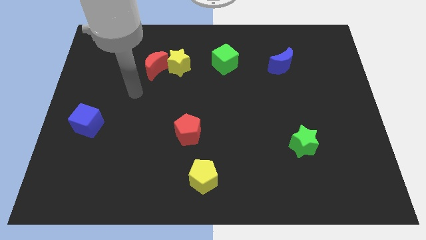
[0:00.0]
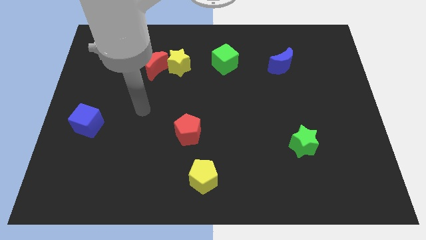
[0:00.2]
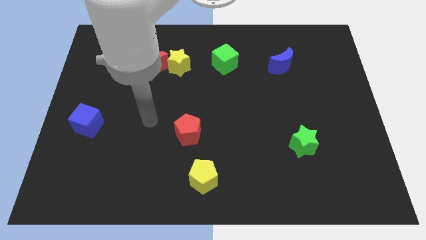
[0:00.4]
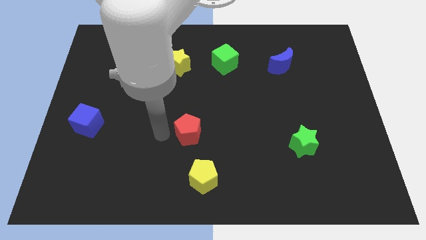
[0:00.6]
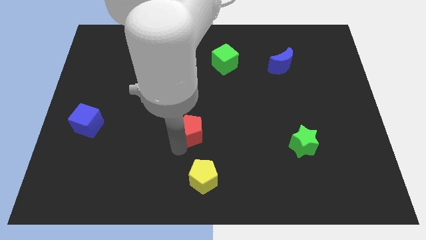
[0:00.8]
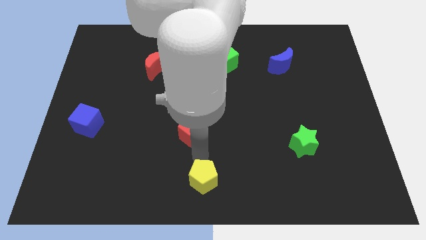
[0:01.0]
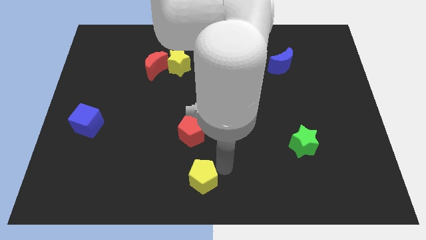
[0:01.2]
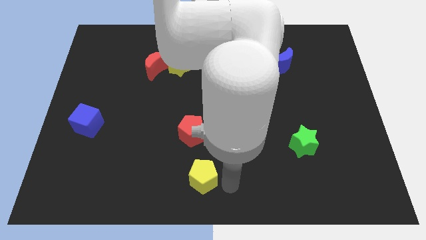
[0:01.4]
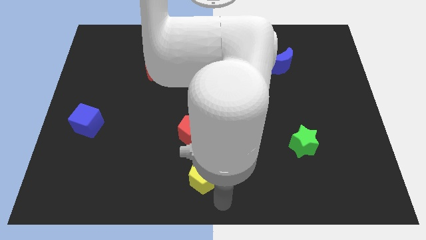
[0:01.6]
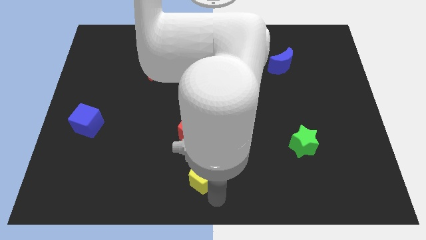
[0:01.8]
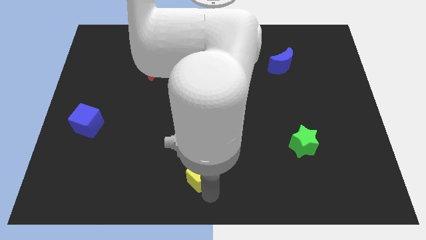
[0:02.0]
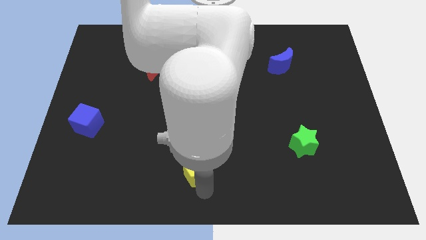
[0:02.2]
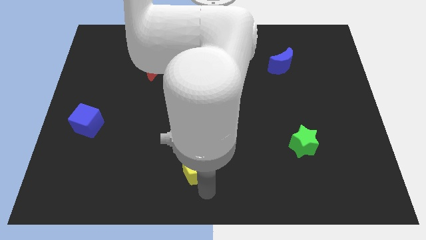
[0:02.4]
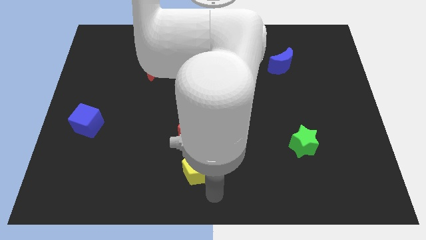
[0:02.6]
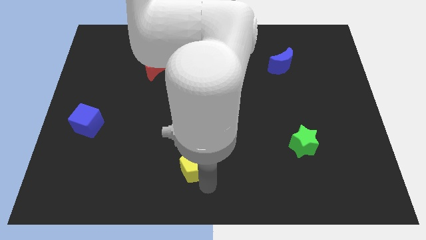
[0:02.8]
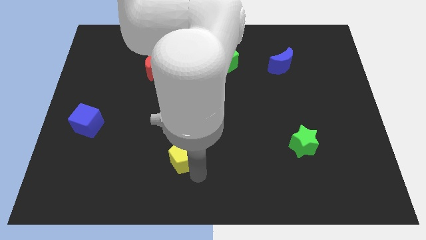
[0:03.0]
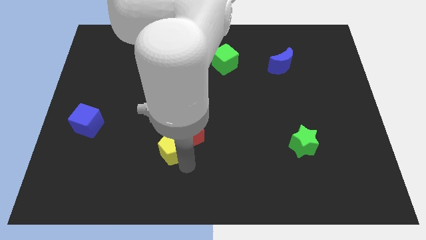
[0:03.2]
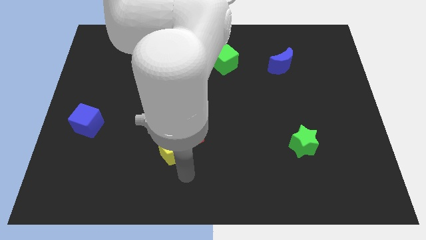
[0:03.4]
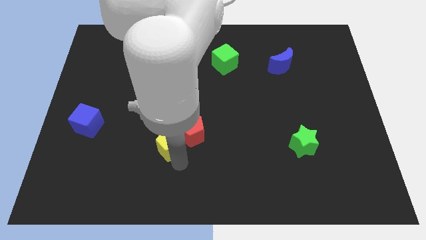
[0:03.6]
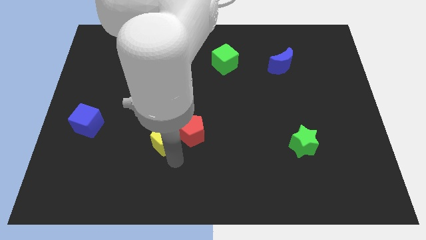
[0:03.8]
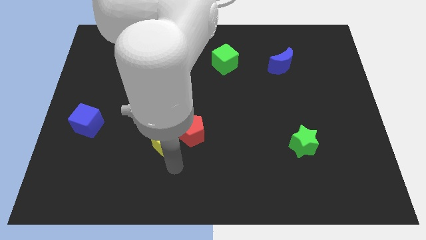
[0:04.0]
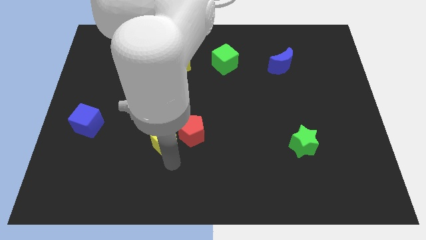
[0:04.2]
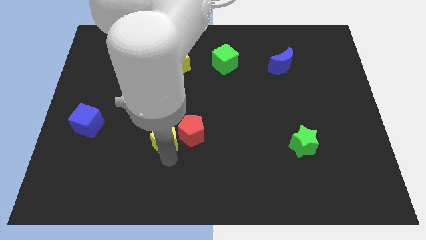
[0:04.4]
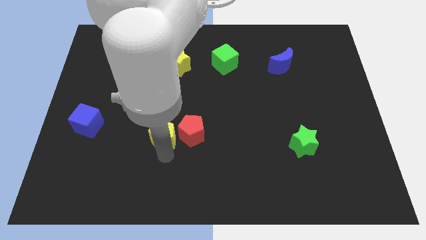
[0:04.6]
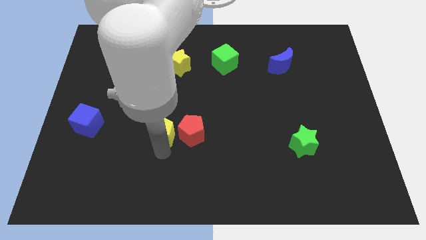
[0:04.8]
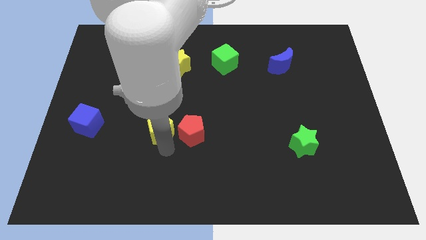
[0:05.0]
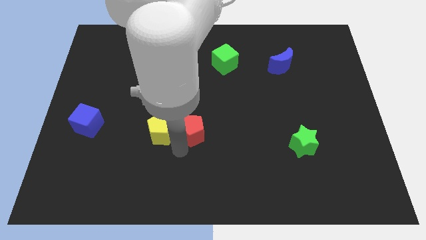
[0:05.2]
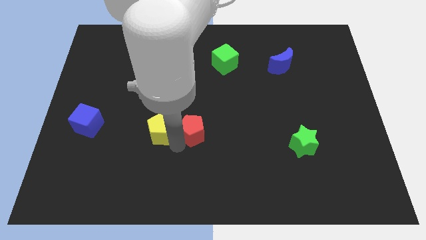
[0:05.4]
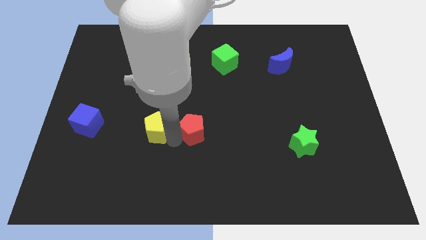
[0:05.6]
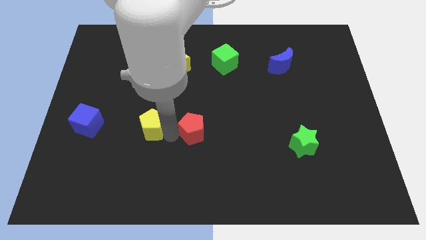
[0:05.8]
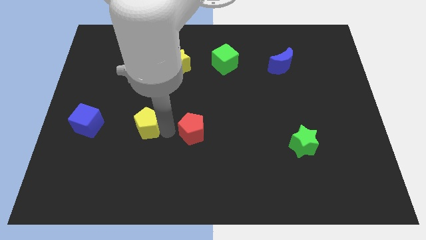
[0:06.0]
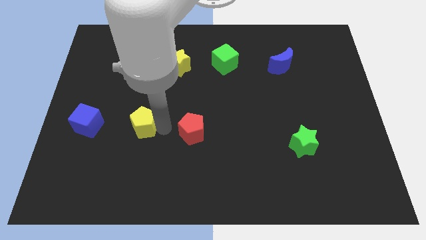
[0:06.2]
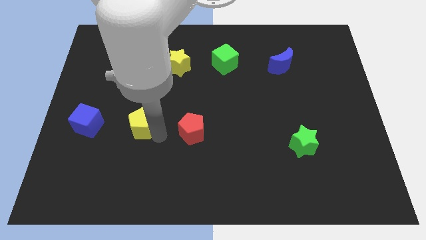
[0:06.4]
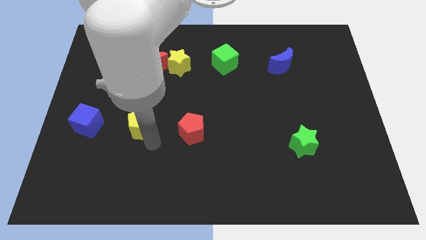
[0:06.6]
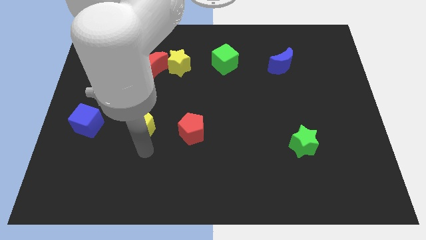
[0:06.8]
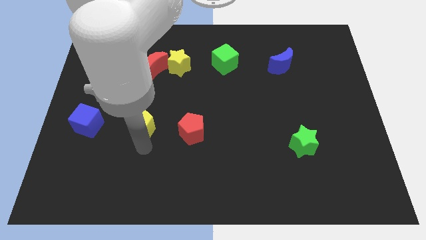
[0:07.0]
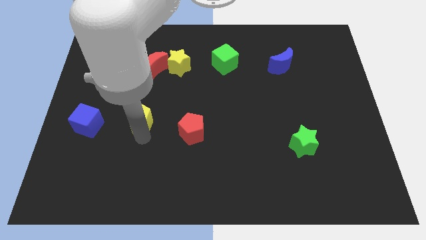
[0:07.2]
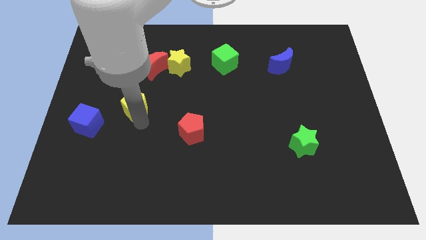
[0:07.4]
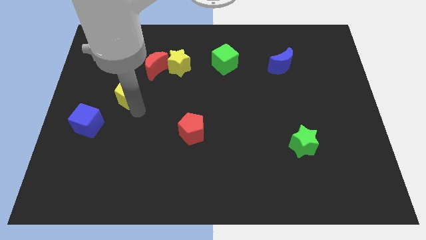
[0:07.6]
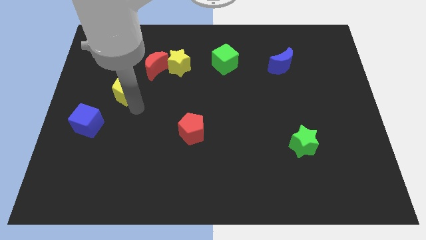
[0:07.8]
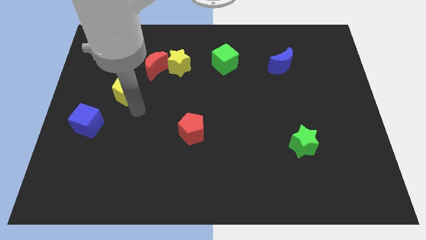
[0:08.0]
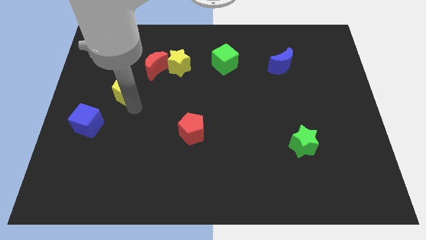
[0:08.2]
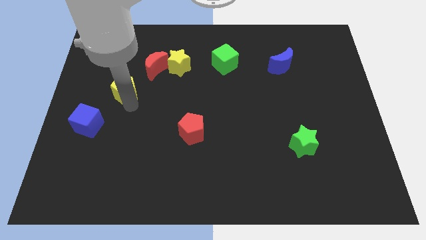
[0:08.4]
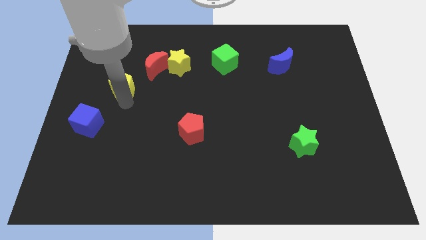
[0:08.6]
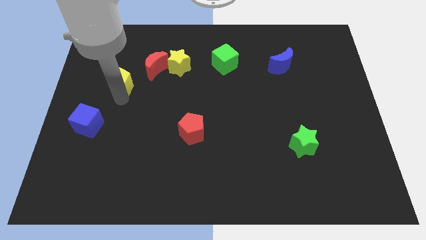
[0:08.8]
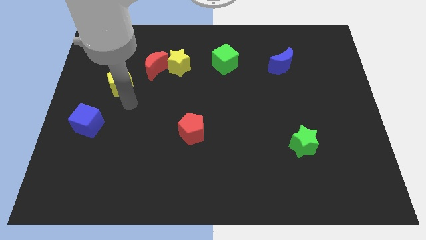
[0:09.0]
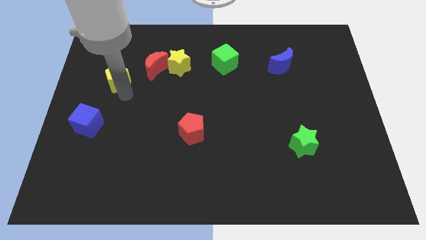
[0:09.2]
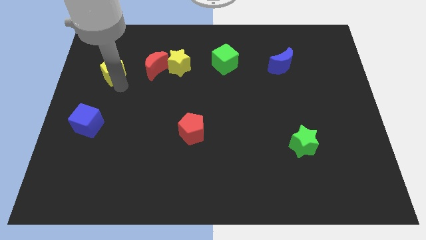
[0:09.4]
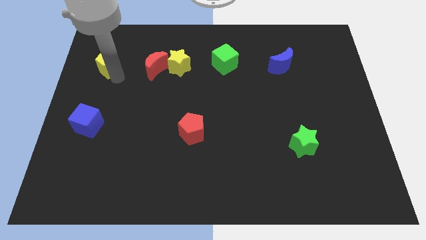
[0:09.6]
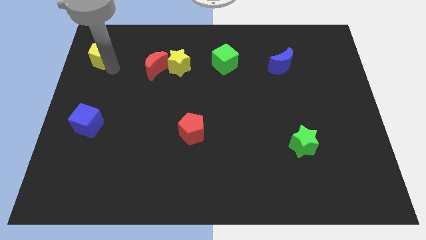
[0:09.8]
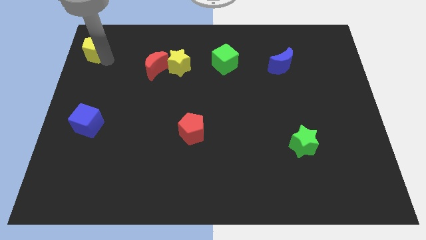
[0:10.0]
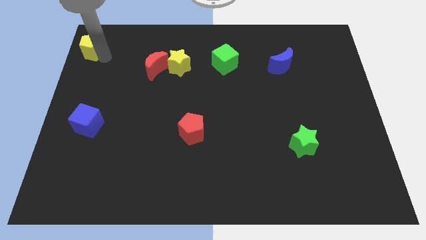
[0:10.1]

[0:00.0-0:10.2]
put the yellow pentagon to the top left

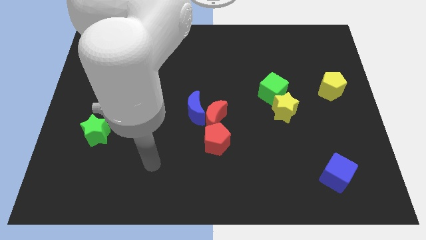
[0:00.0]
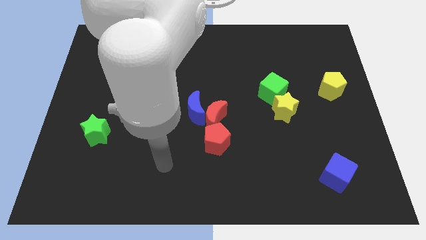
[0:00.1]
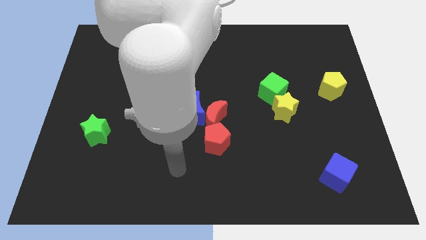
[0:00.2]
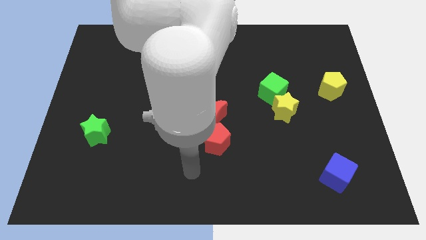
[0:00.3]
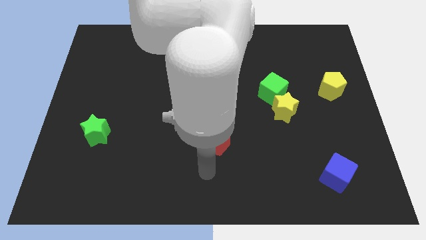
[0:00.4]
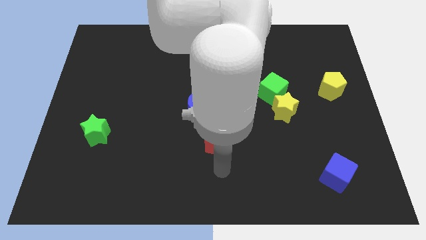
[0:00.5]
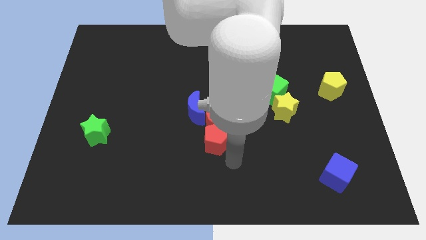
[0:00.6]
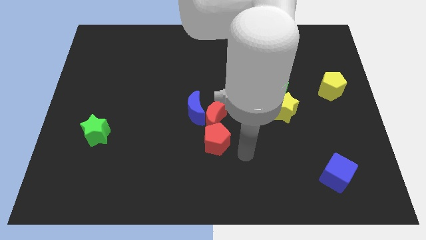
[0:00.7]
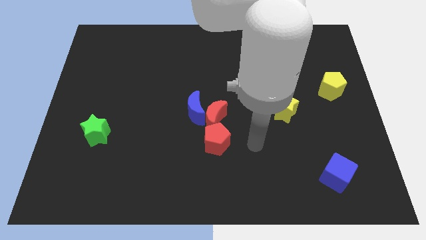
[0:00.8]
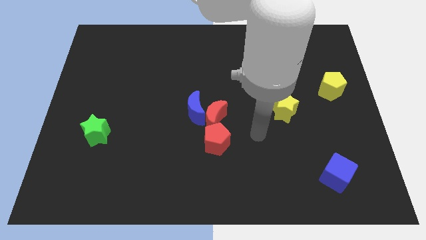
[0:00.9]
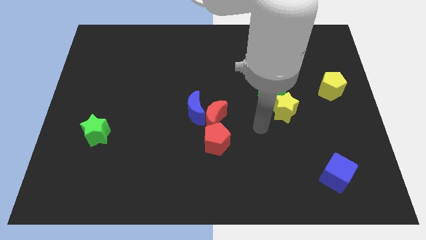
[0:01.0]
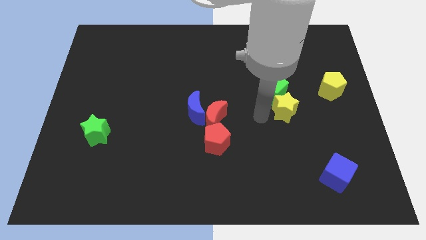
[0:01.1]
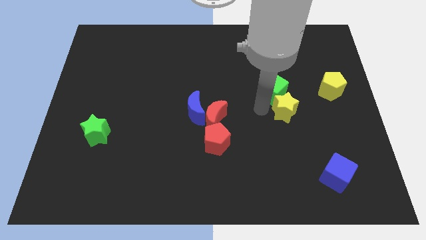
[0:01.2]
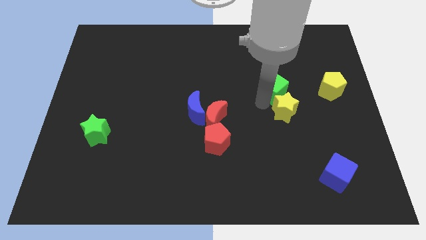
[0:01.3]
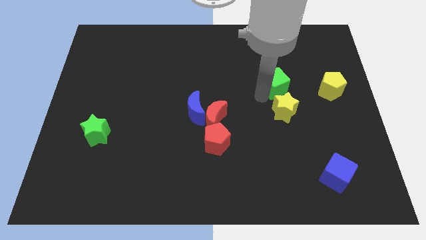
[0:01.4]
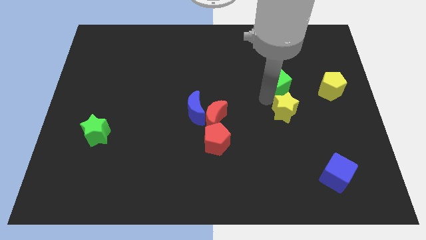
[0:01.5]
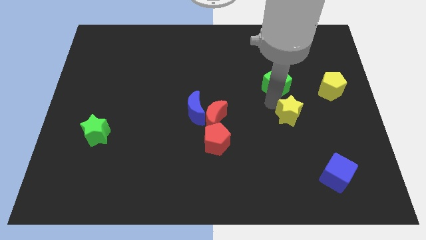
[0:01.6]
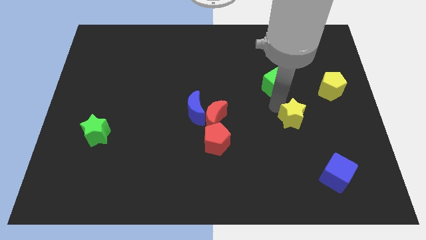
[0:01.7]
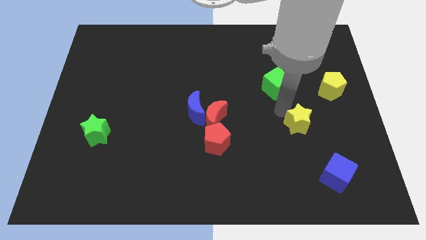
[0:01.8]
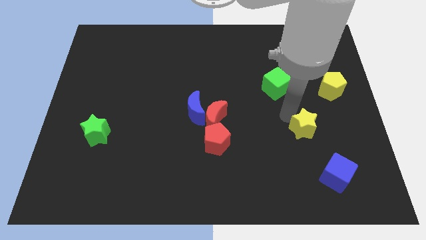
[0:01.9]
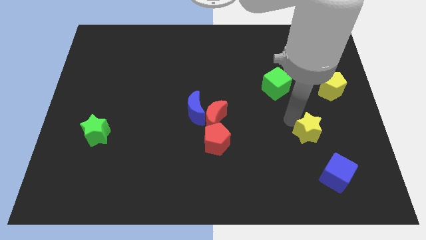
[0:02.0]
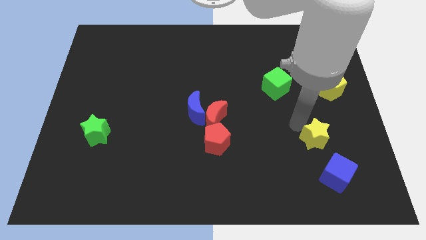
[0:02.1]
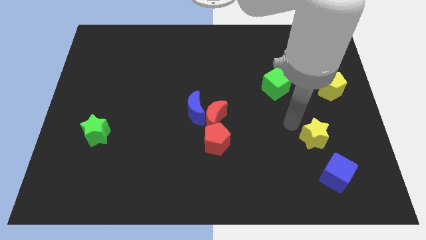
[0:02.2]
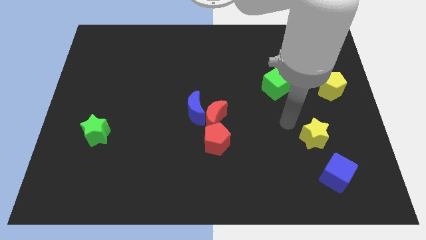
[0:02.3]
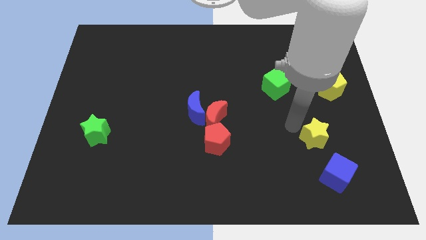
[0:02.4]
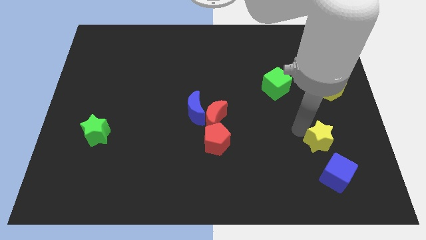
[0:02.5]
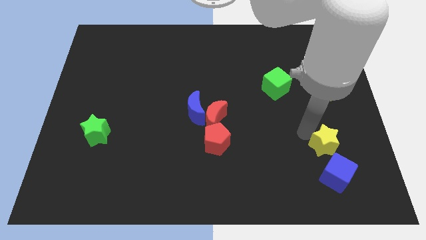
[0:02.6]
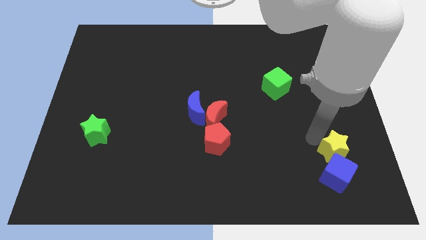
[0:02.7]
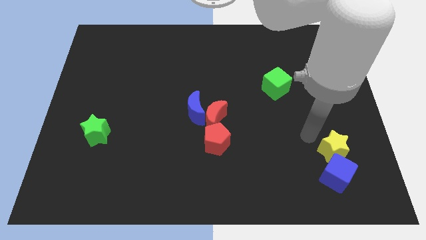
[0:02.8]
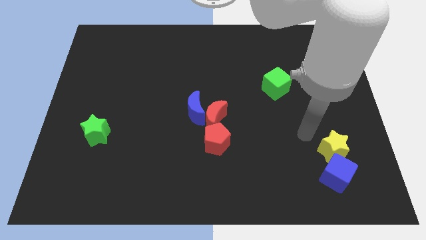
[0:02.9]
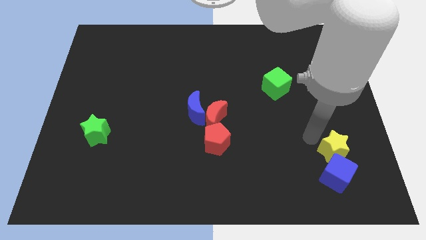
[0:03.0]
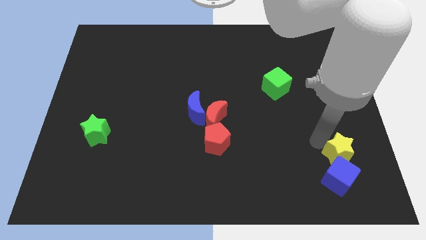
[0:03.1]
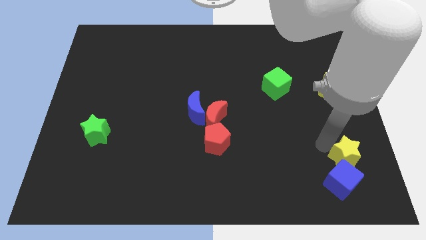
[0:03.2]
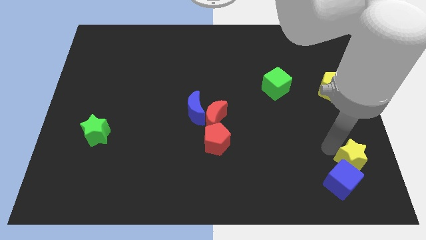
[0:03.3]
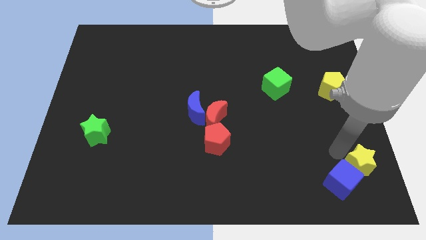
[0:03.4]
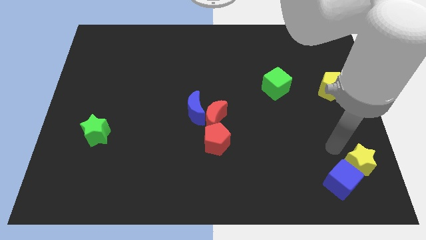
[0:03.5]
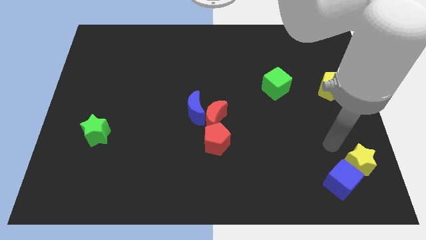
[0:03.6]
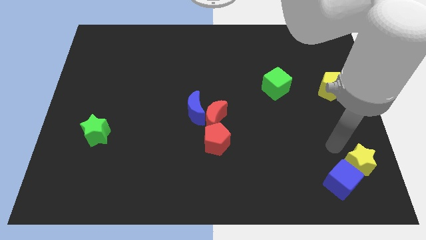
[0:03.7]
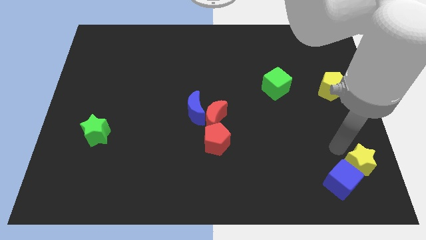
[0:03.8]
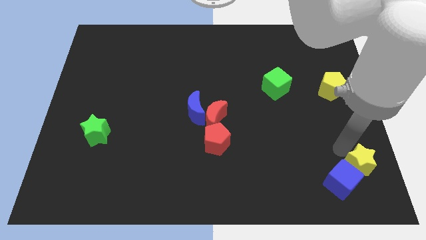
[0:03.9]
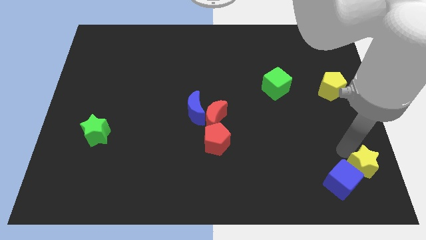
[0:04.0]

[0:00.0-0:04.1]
push the yellow star to the bottom right corner
